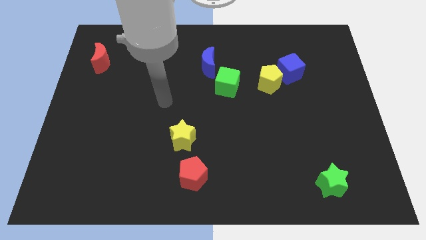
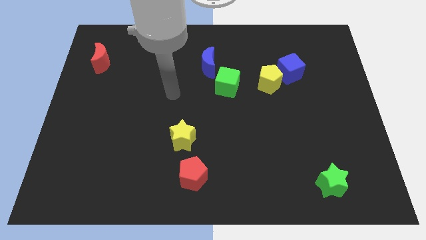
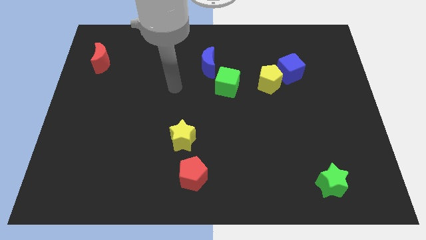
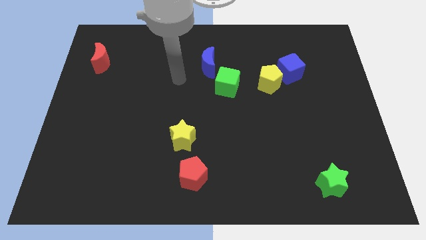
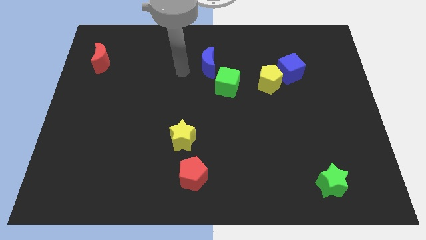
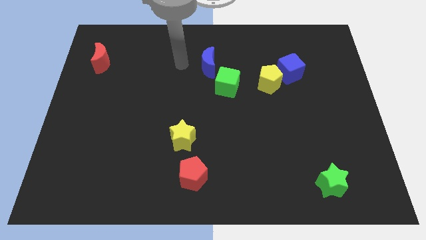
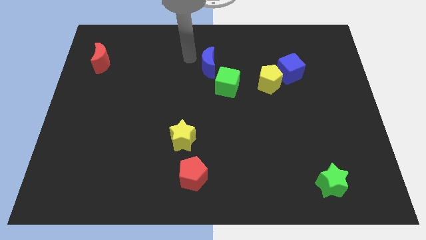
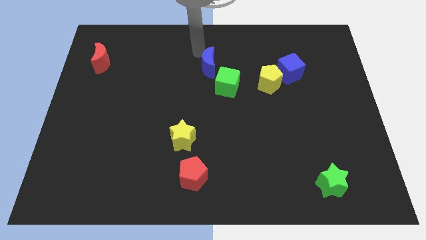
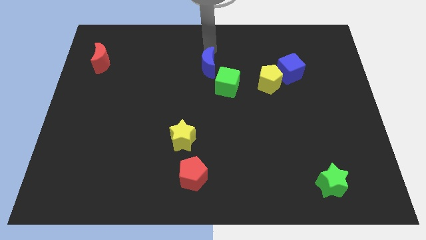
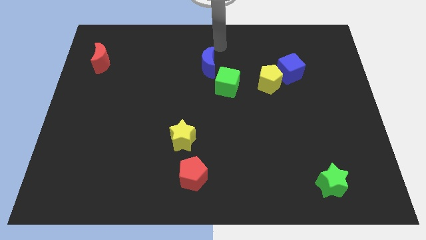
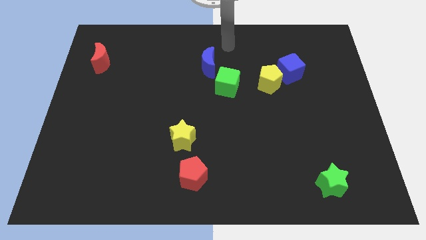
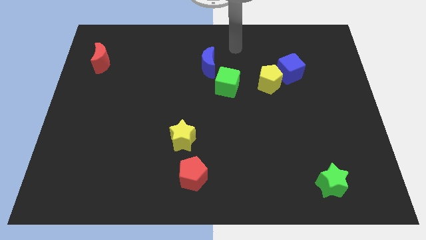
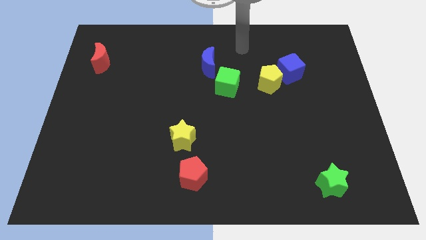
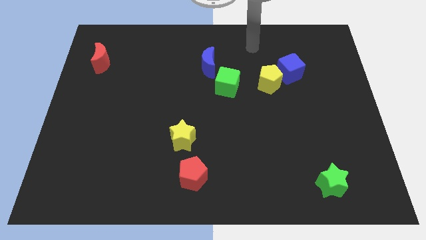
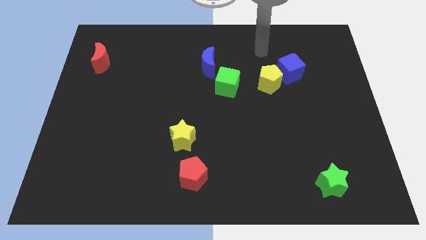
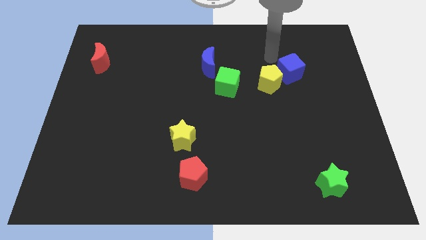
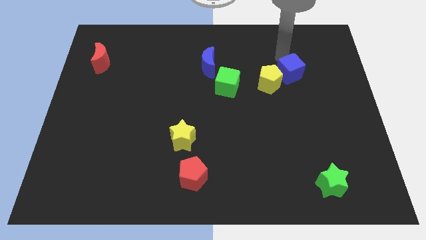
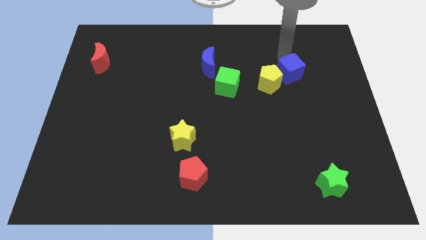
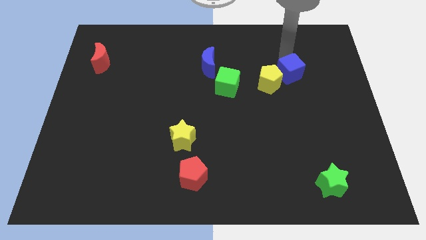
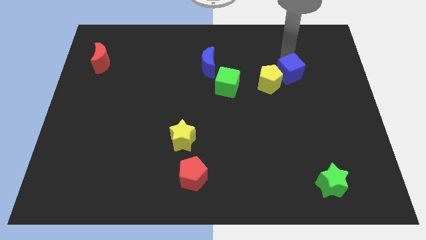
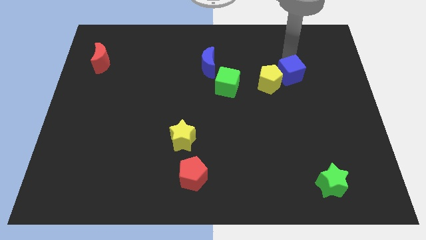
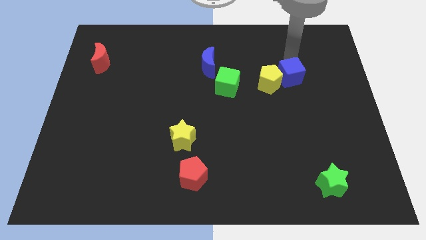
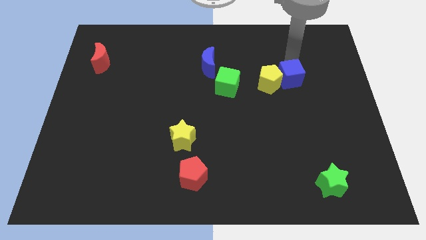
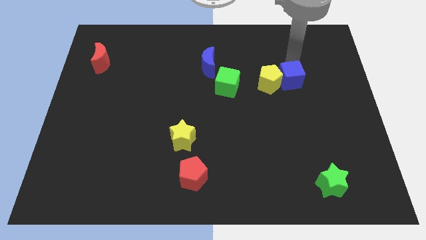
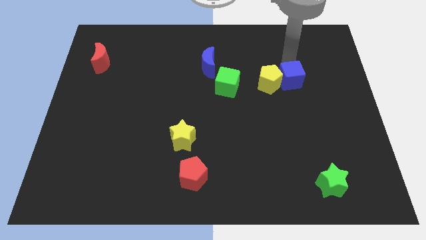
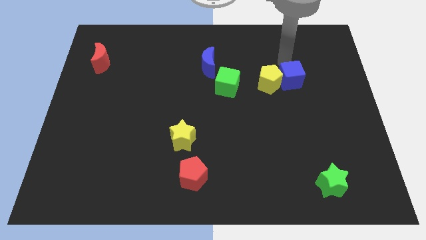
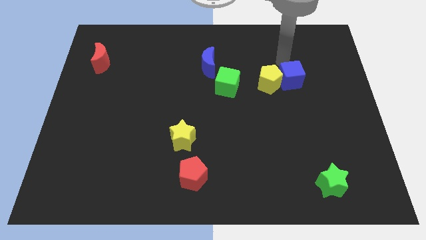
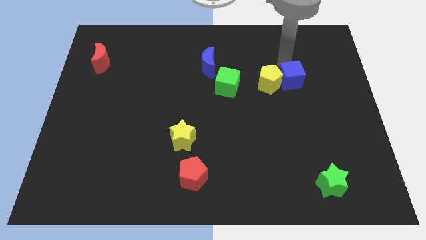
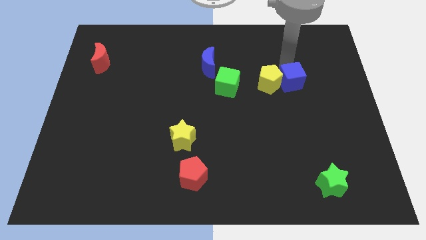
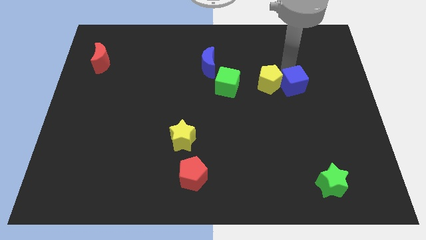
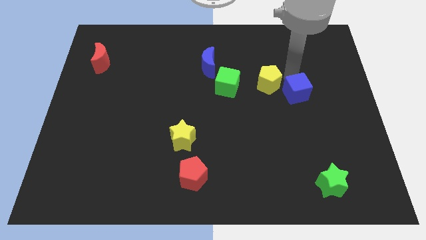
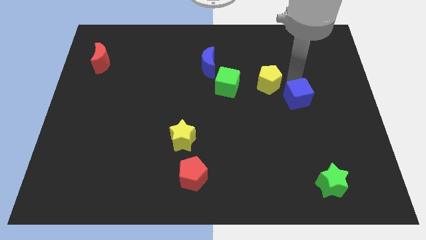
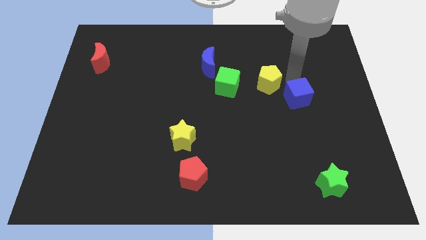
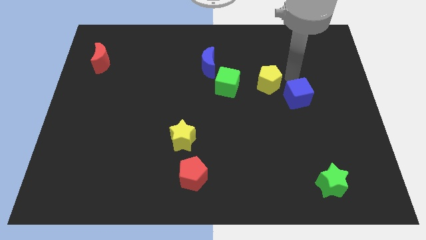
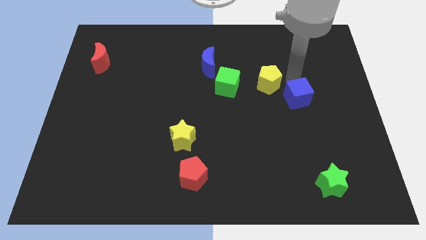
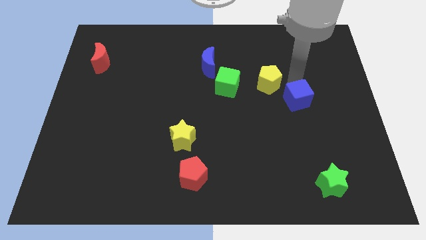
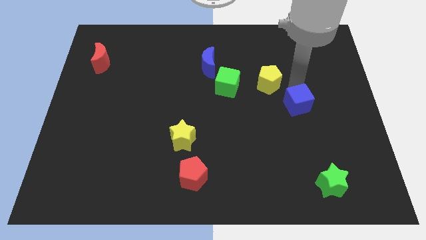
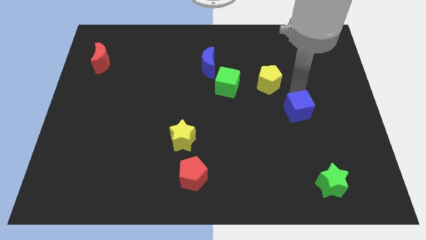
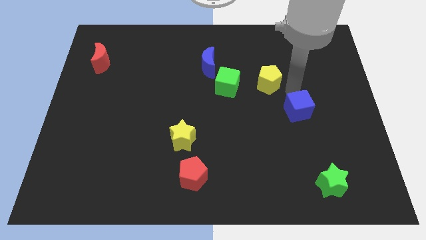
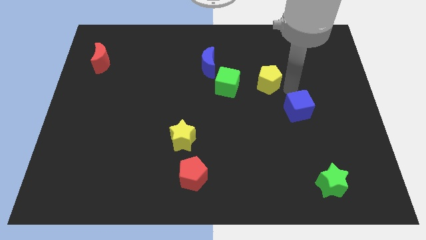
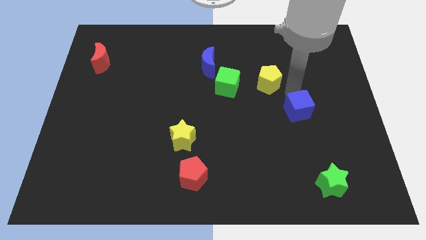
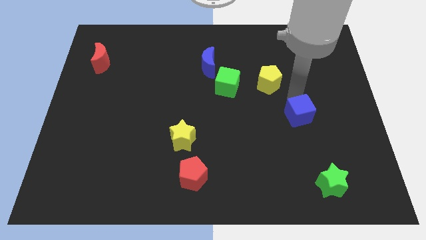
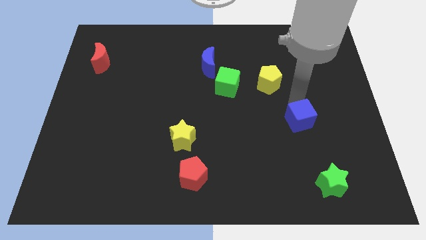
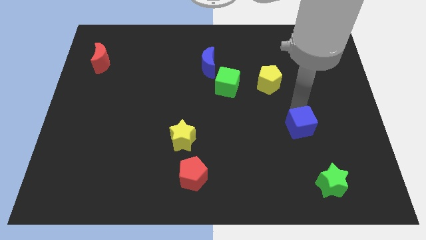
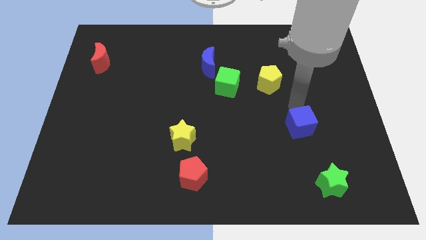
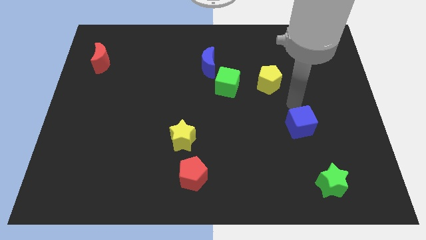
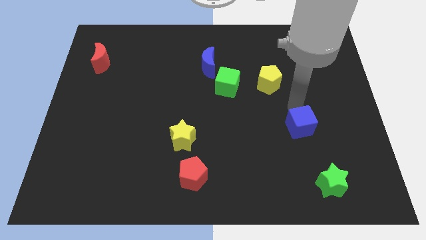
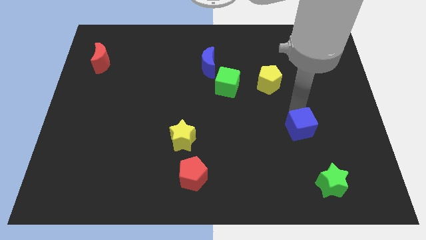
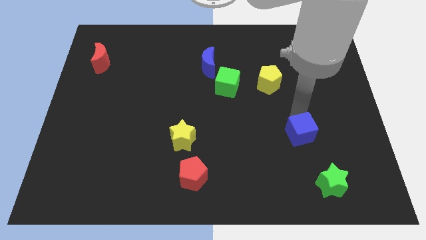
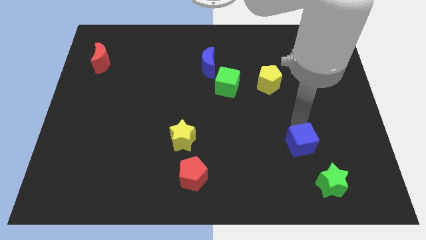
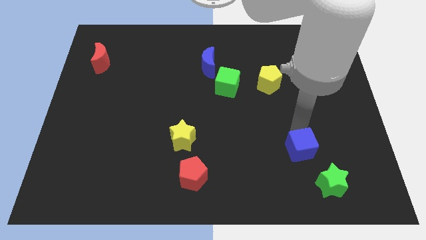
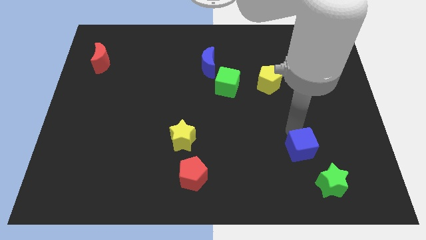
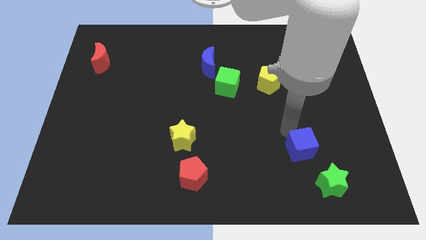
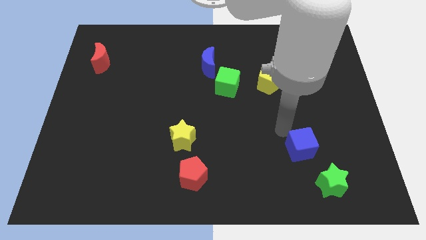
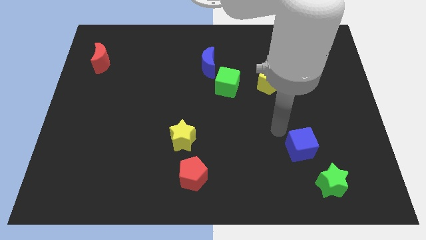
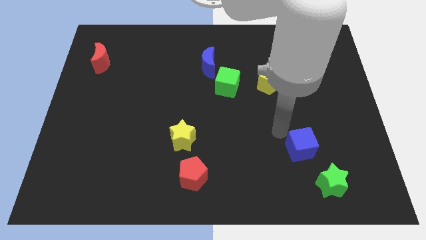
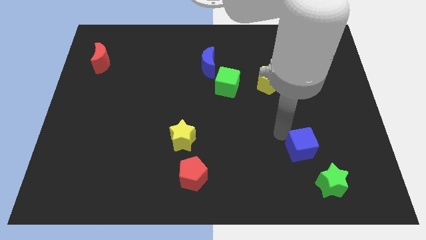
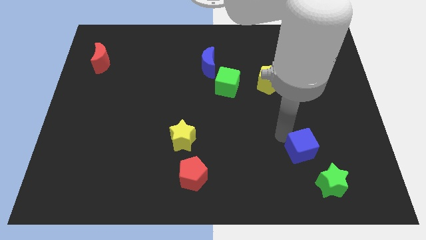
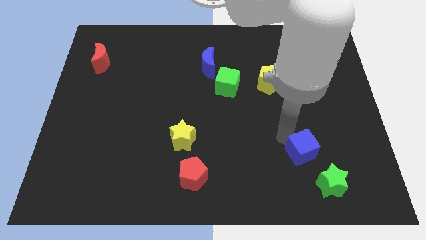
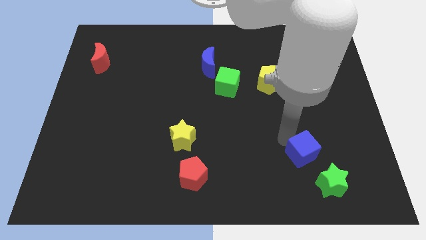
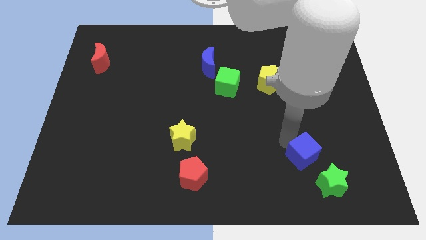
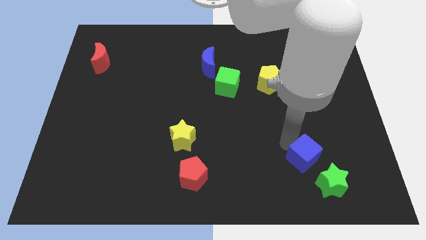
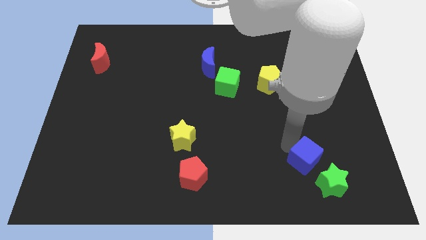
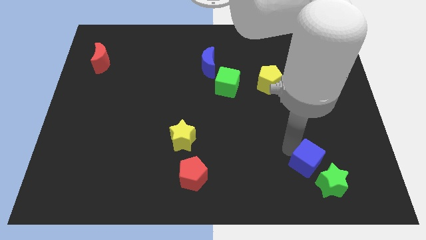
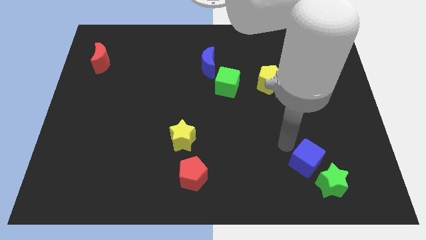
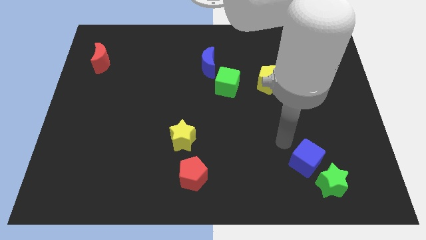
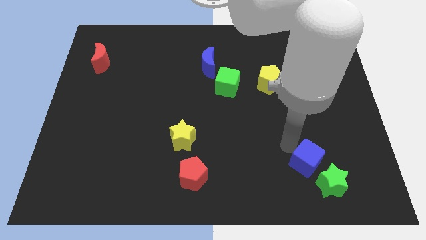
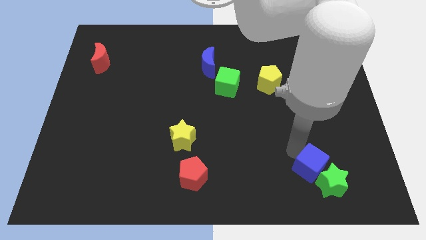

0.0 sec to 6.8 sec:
slide the blue cube towards the green star
